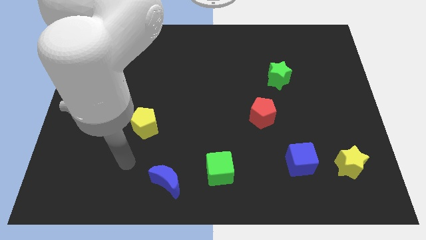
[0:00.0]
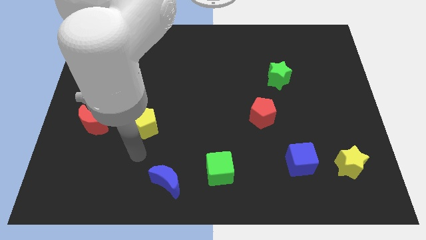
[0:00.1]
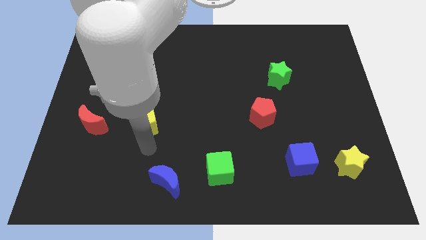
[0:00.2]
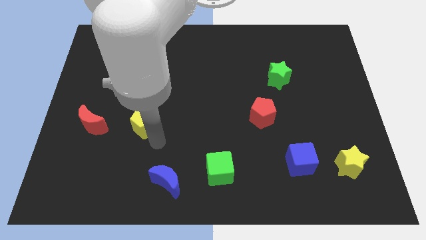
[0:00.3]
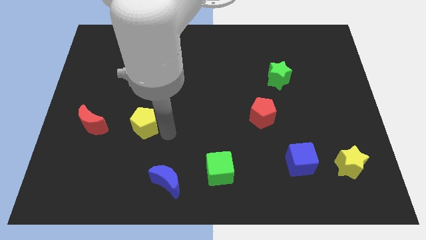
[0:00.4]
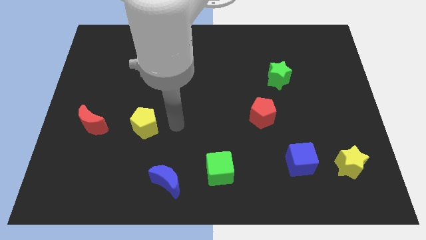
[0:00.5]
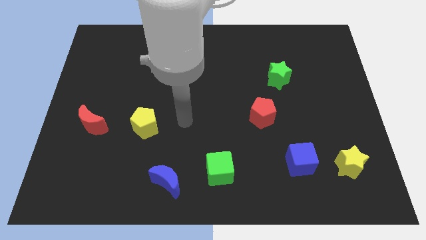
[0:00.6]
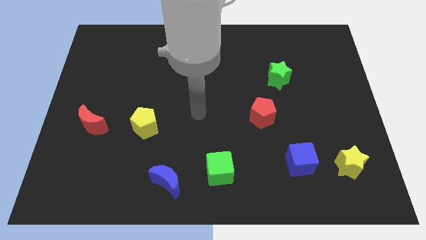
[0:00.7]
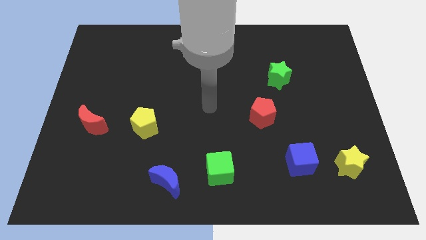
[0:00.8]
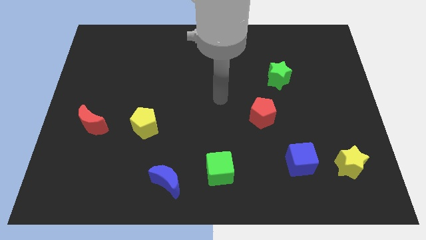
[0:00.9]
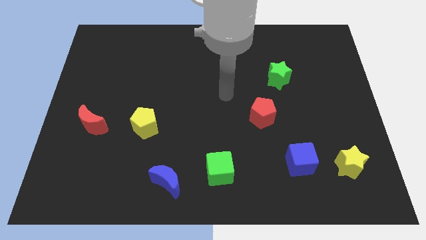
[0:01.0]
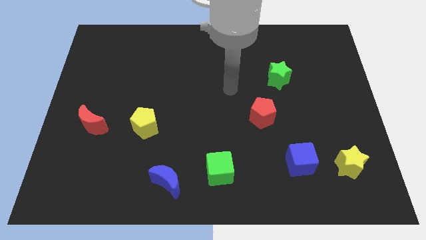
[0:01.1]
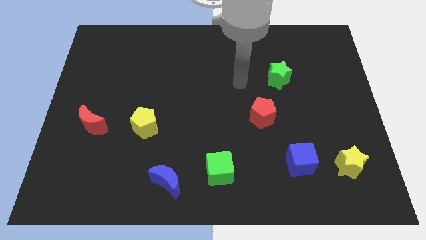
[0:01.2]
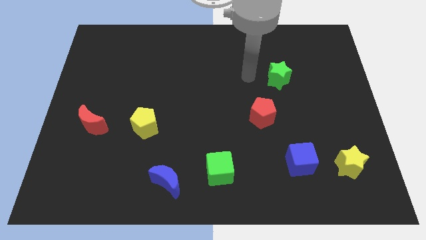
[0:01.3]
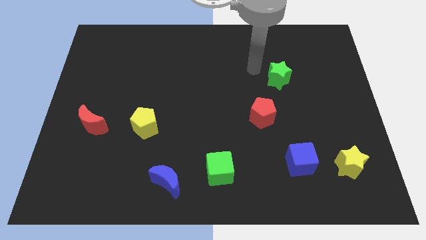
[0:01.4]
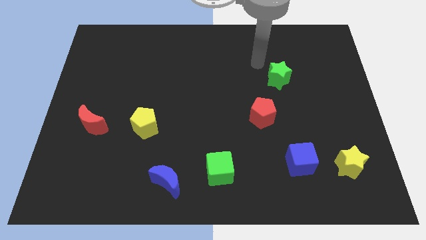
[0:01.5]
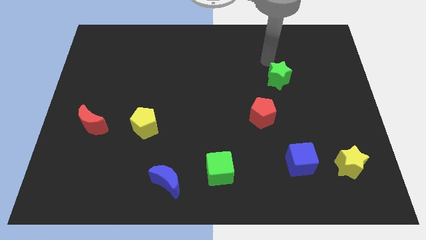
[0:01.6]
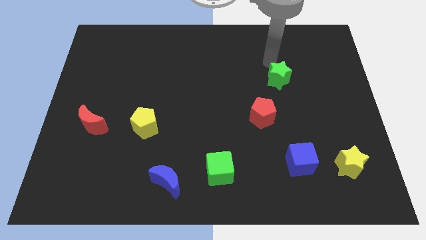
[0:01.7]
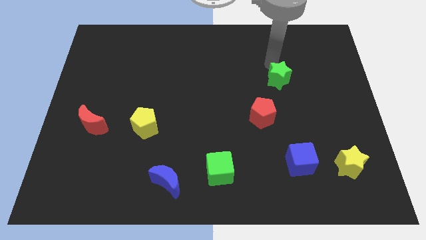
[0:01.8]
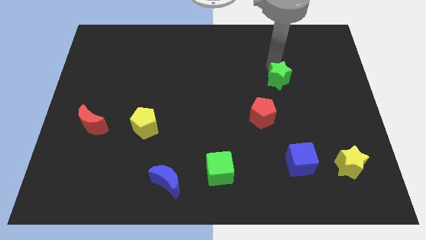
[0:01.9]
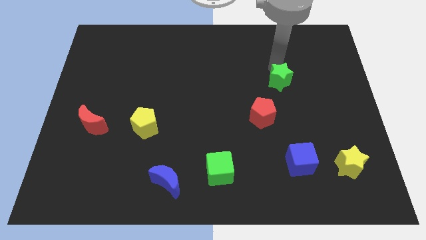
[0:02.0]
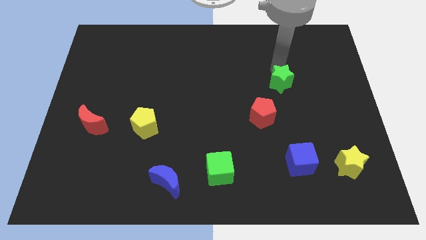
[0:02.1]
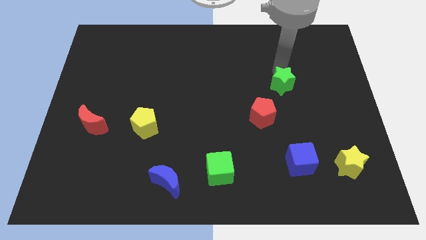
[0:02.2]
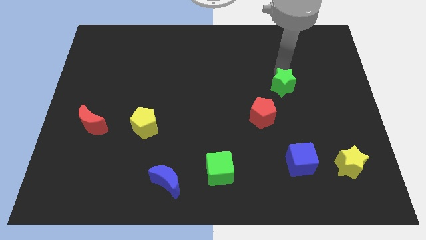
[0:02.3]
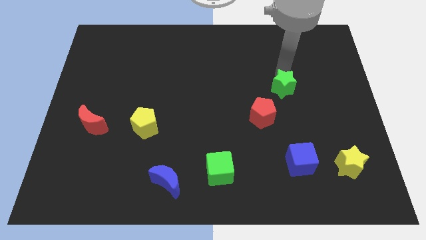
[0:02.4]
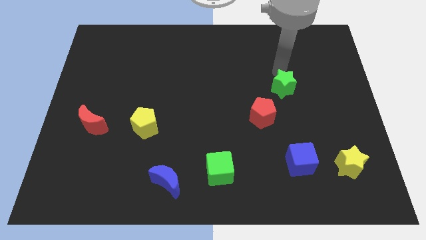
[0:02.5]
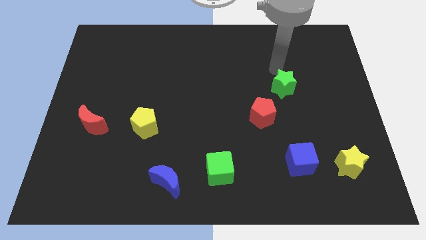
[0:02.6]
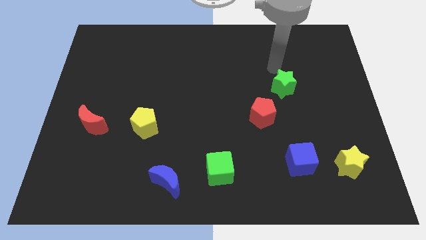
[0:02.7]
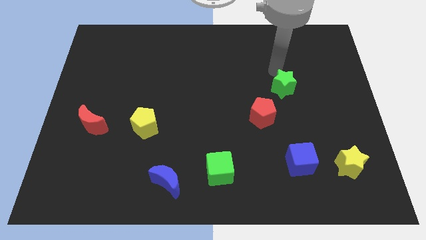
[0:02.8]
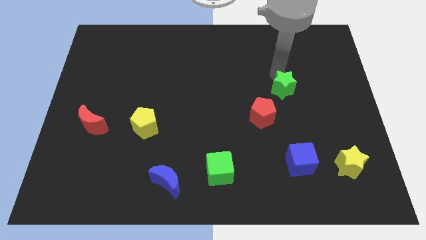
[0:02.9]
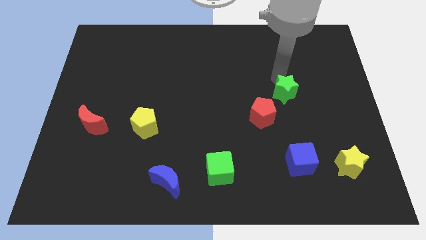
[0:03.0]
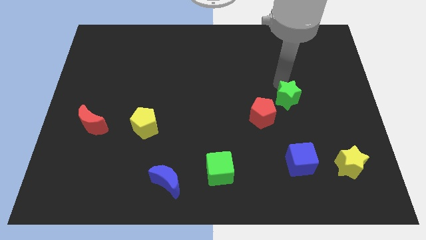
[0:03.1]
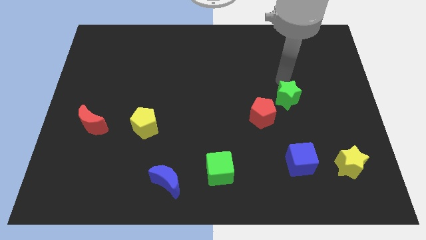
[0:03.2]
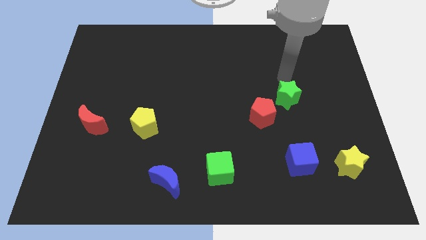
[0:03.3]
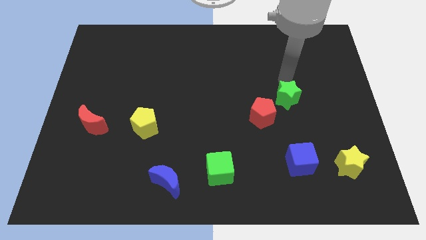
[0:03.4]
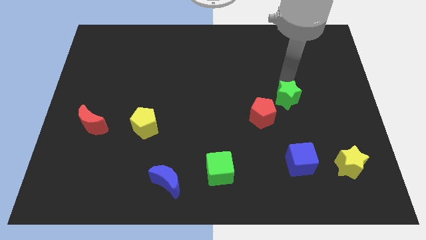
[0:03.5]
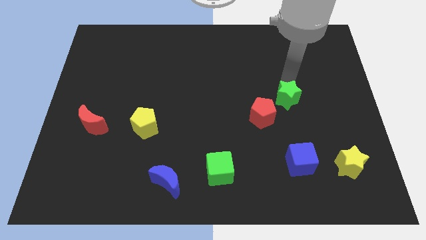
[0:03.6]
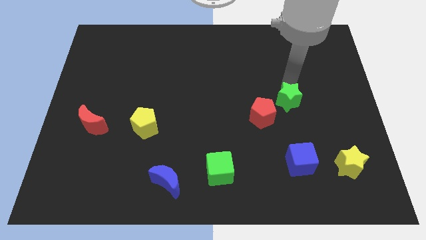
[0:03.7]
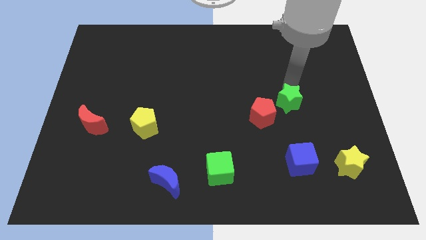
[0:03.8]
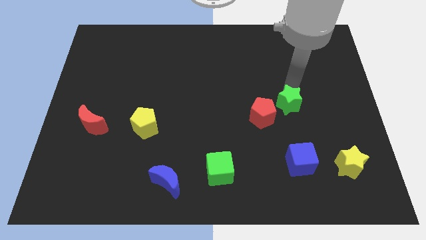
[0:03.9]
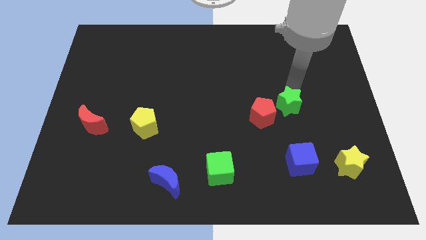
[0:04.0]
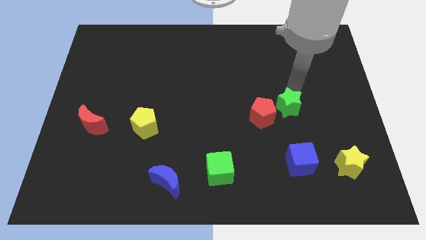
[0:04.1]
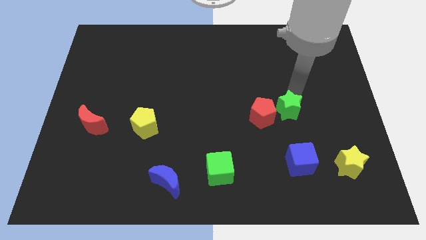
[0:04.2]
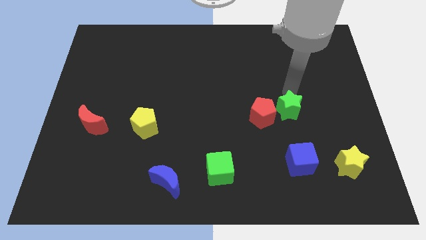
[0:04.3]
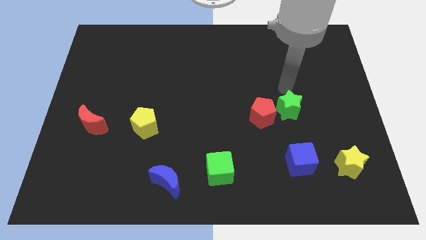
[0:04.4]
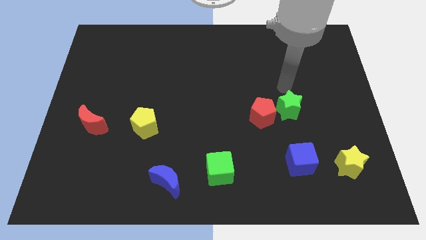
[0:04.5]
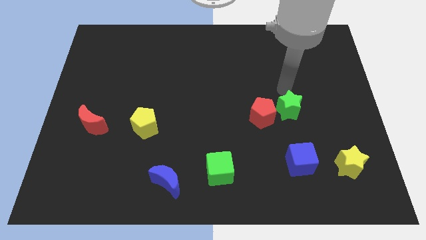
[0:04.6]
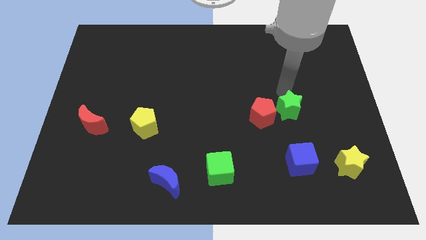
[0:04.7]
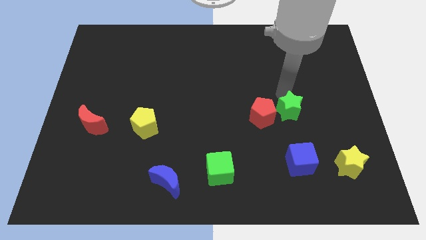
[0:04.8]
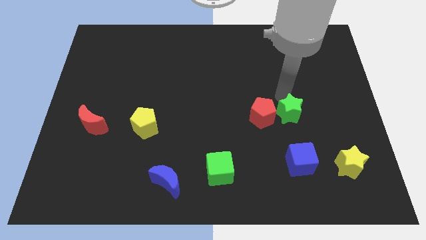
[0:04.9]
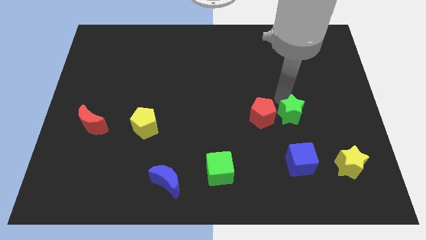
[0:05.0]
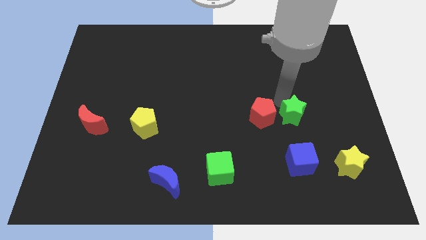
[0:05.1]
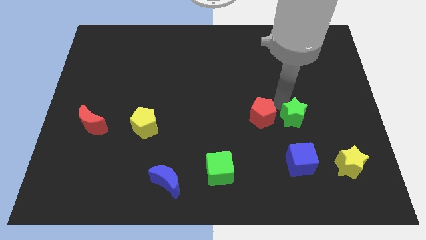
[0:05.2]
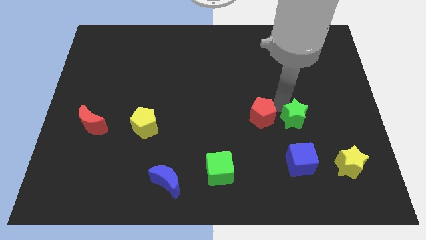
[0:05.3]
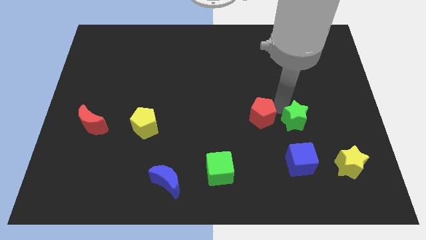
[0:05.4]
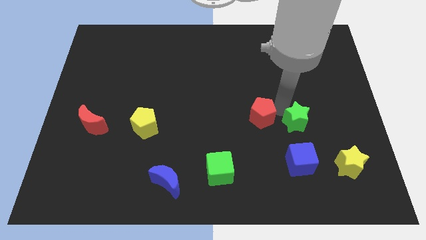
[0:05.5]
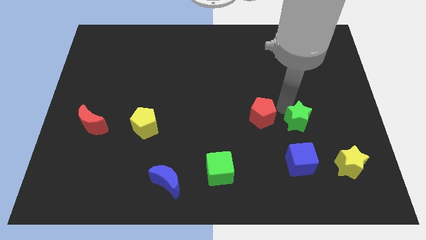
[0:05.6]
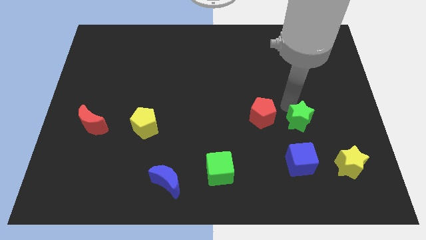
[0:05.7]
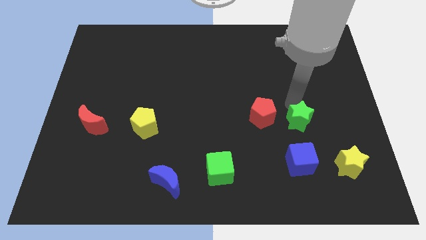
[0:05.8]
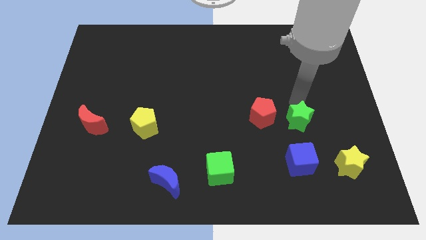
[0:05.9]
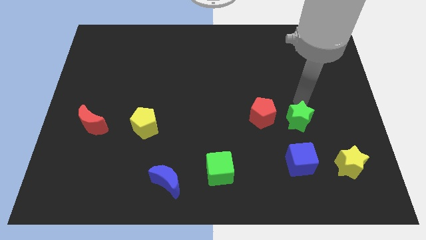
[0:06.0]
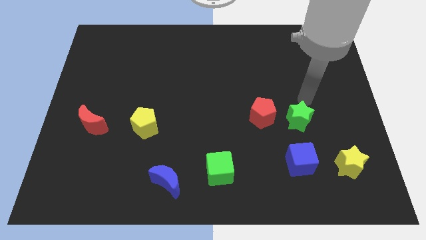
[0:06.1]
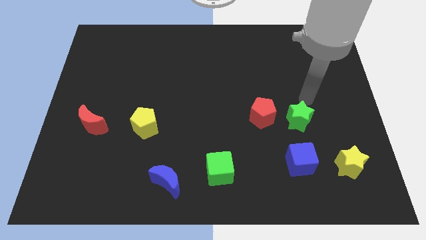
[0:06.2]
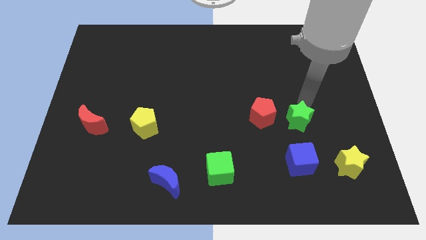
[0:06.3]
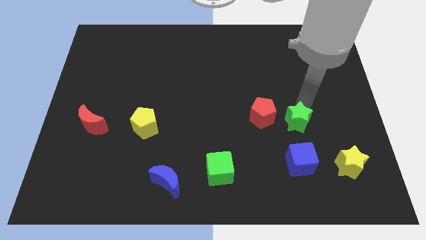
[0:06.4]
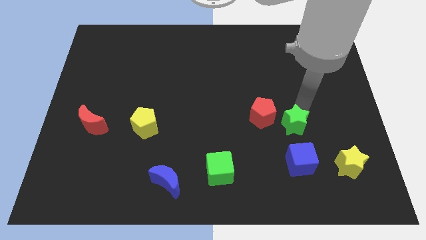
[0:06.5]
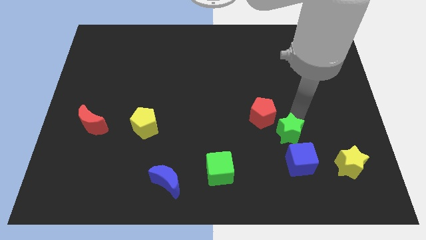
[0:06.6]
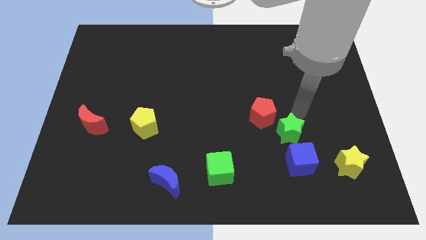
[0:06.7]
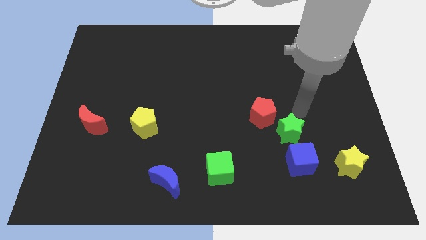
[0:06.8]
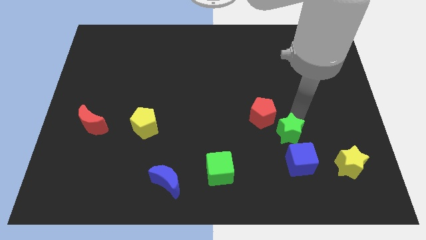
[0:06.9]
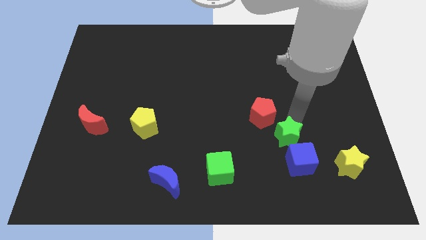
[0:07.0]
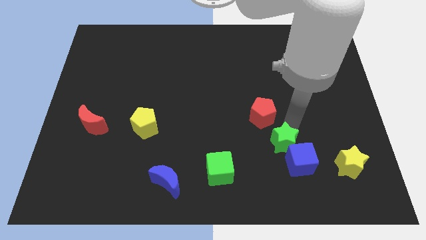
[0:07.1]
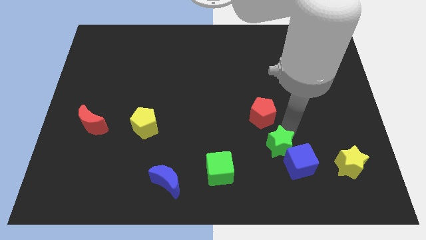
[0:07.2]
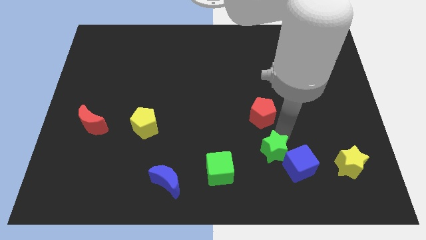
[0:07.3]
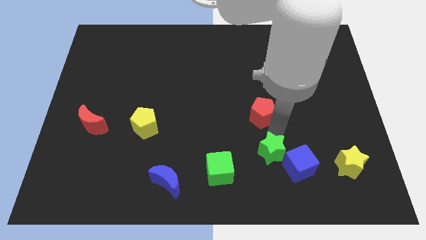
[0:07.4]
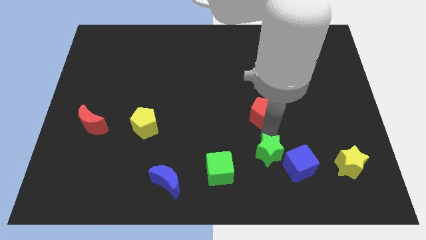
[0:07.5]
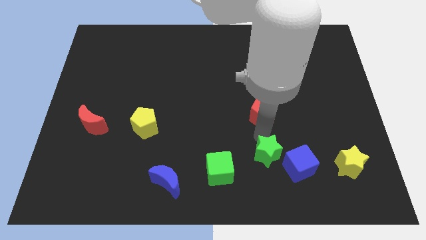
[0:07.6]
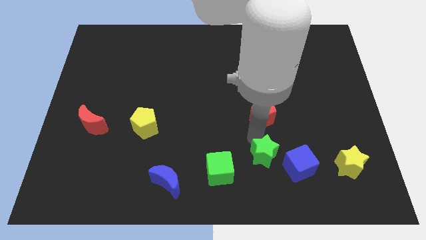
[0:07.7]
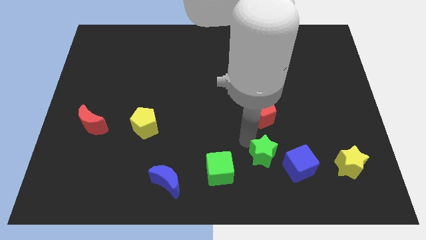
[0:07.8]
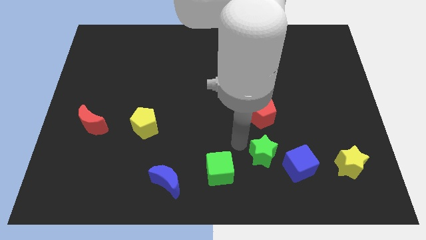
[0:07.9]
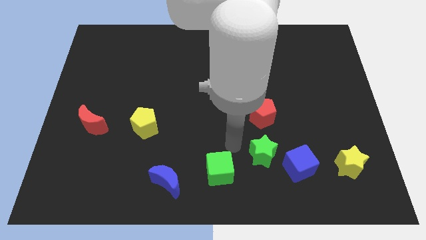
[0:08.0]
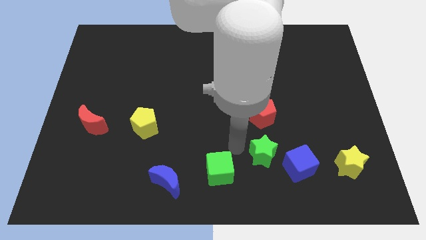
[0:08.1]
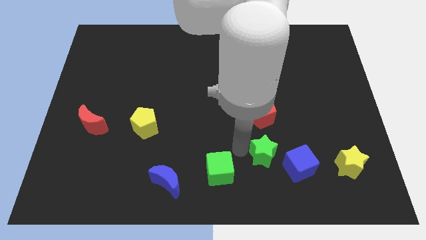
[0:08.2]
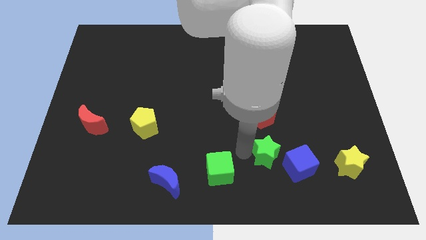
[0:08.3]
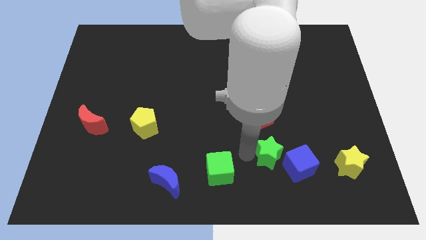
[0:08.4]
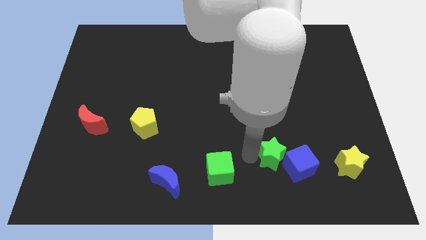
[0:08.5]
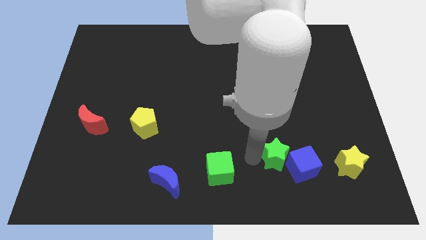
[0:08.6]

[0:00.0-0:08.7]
push the green star to the left side of the yellow star
